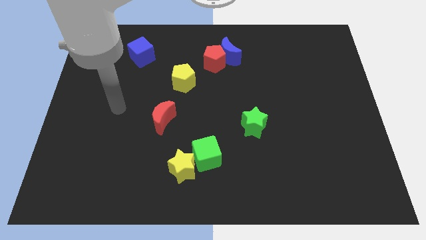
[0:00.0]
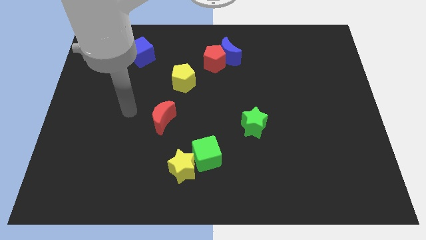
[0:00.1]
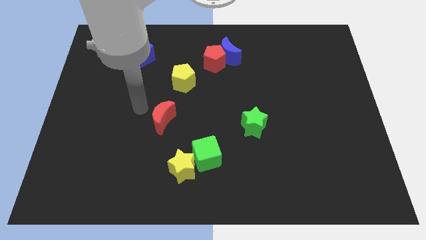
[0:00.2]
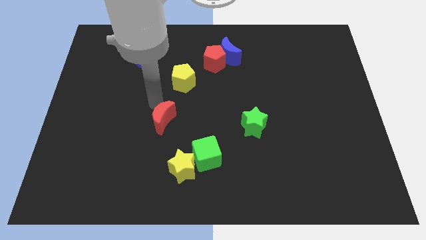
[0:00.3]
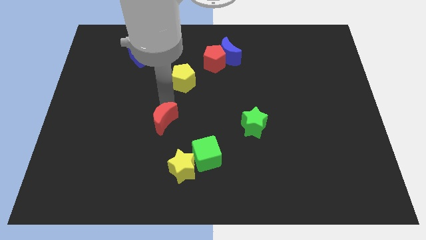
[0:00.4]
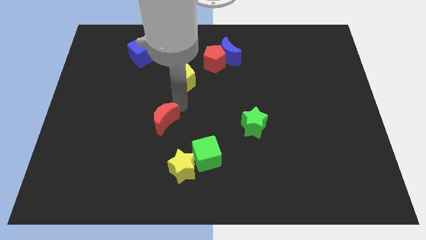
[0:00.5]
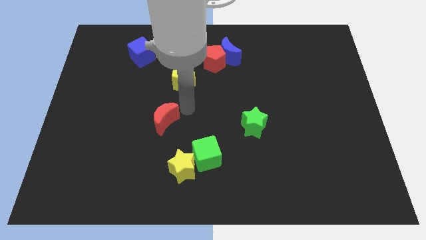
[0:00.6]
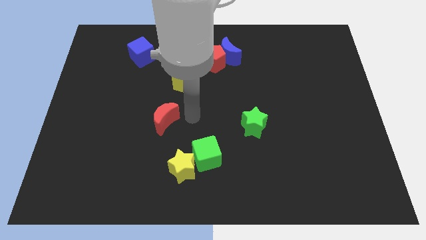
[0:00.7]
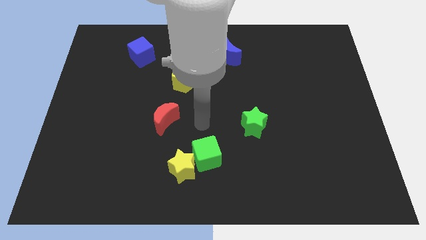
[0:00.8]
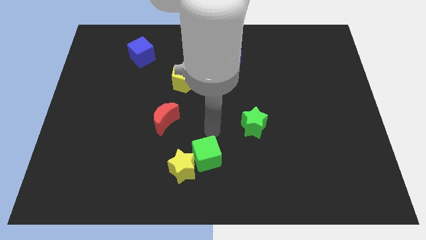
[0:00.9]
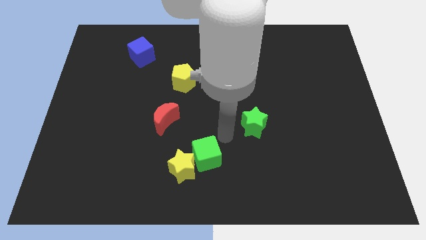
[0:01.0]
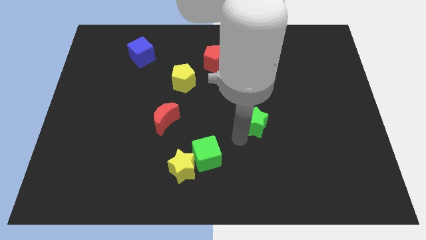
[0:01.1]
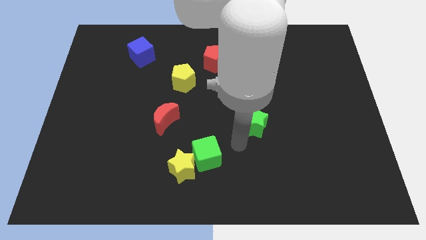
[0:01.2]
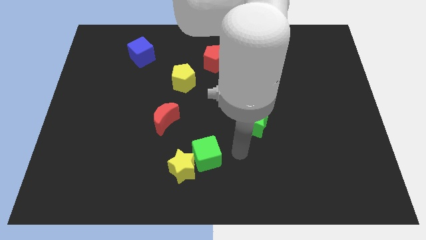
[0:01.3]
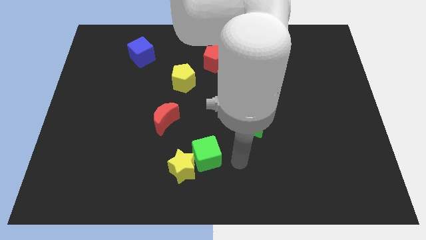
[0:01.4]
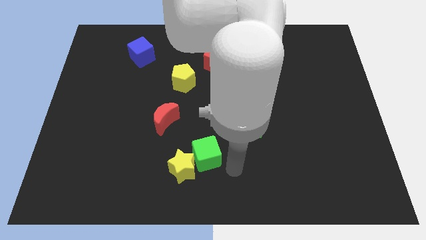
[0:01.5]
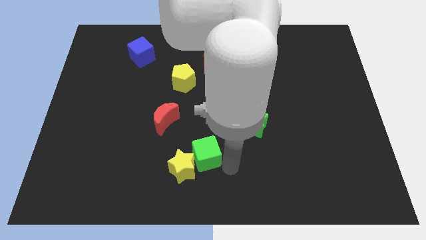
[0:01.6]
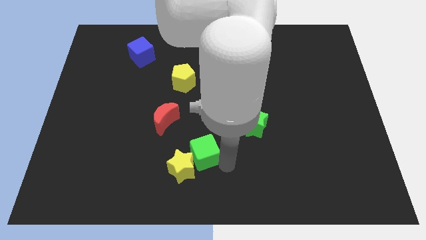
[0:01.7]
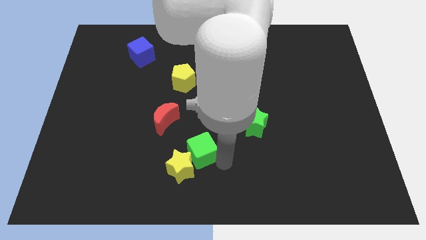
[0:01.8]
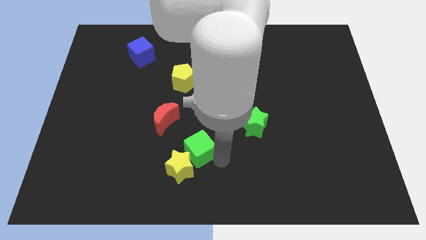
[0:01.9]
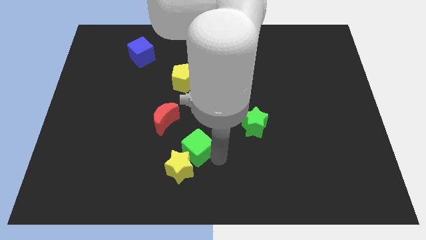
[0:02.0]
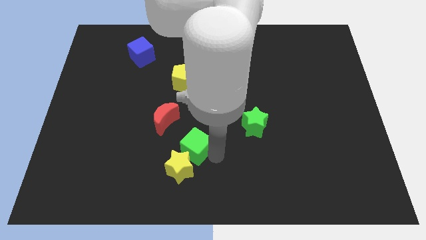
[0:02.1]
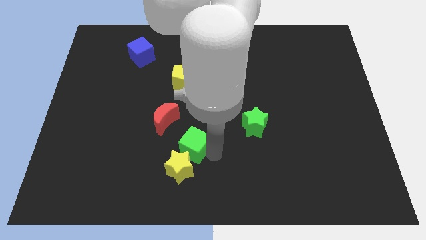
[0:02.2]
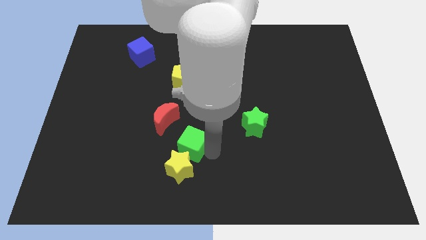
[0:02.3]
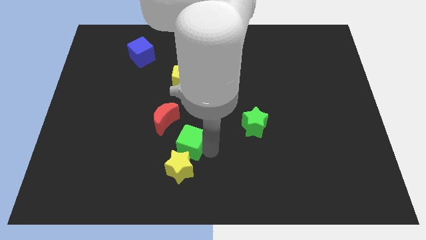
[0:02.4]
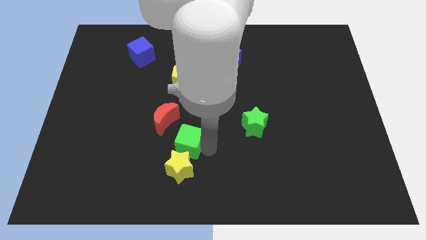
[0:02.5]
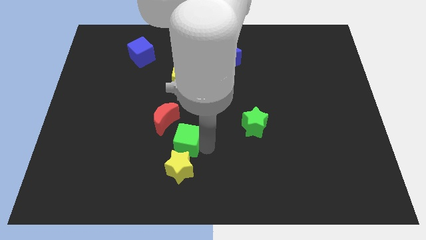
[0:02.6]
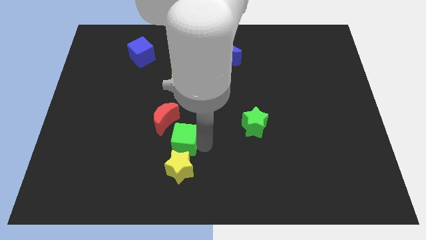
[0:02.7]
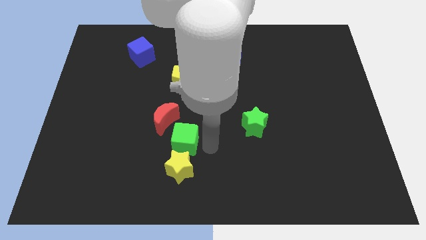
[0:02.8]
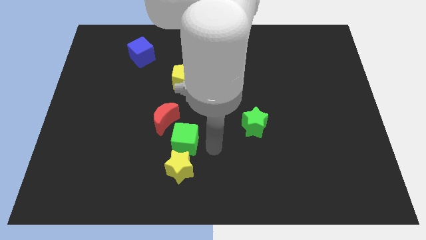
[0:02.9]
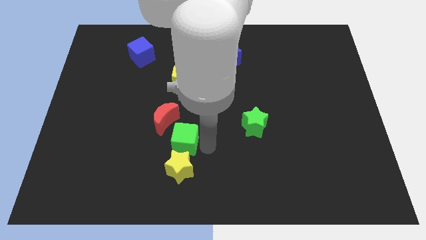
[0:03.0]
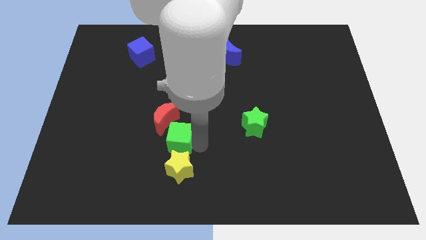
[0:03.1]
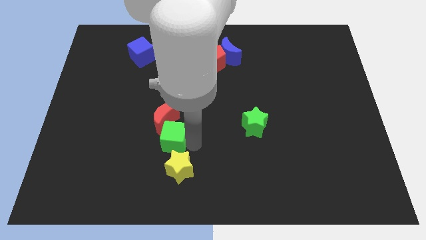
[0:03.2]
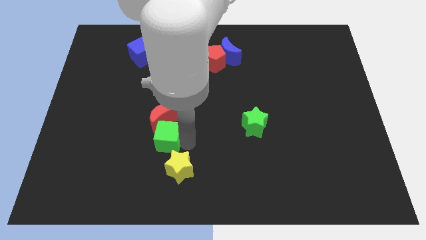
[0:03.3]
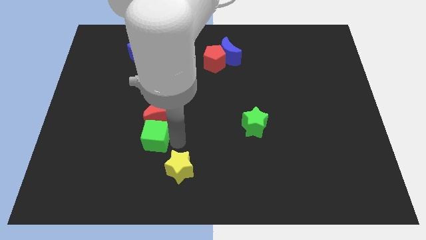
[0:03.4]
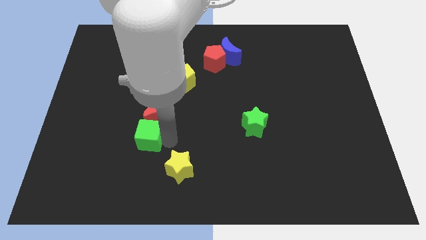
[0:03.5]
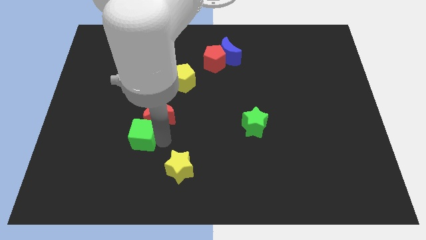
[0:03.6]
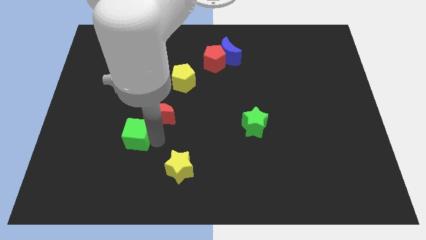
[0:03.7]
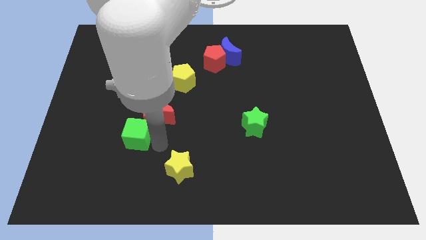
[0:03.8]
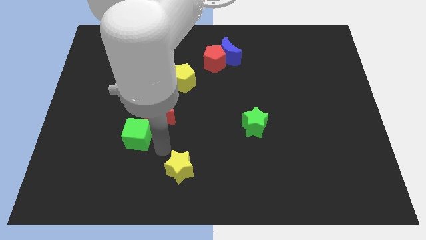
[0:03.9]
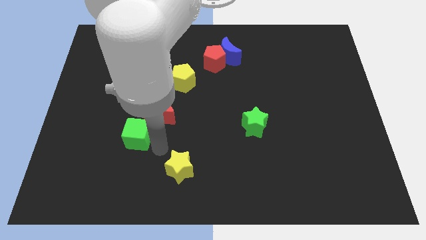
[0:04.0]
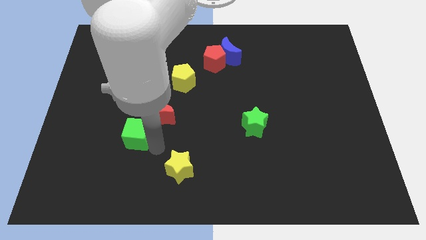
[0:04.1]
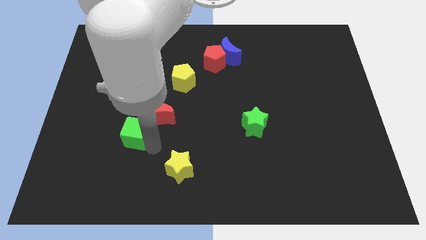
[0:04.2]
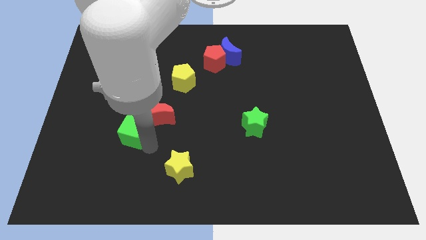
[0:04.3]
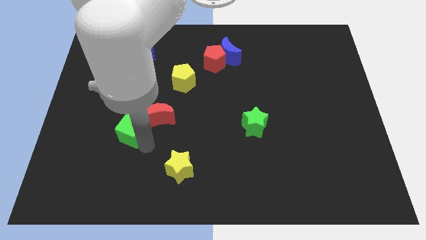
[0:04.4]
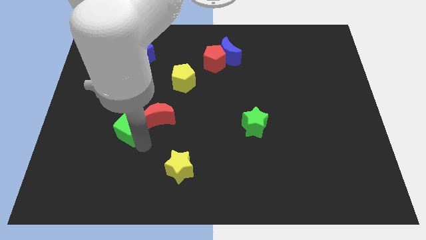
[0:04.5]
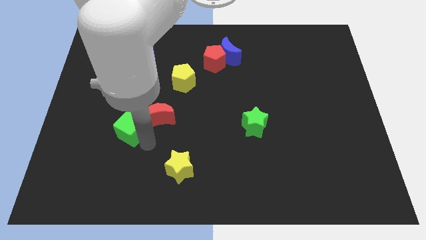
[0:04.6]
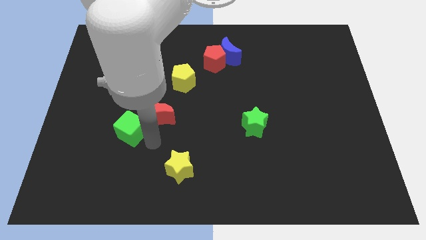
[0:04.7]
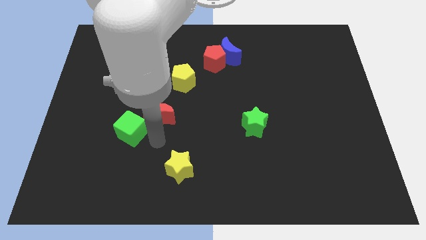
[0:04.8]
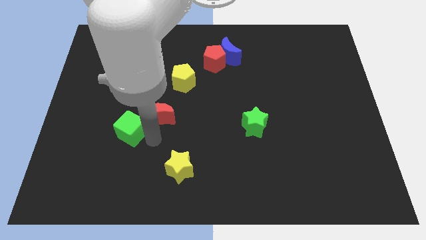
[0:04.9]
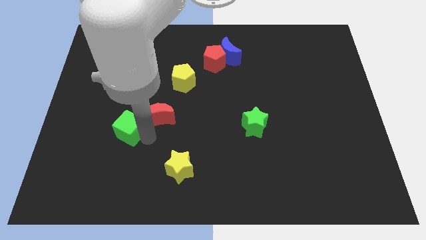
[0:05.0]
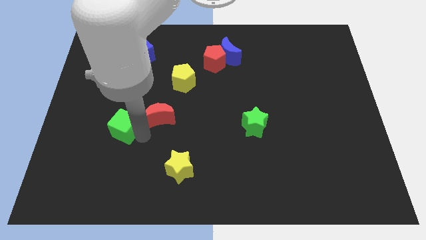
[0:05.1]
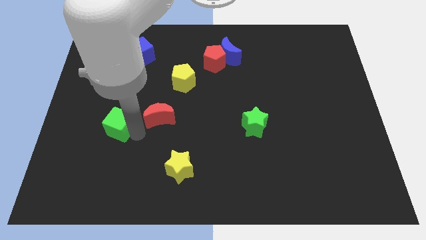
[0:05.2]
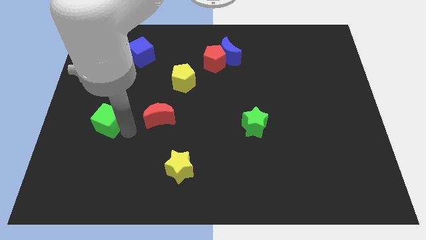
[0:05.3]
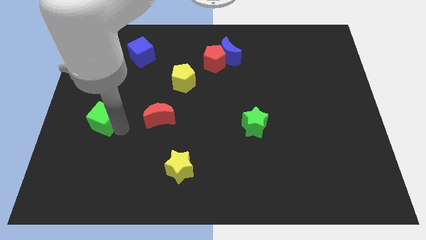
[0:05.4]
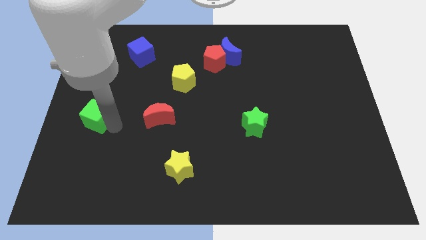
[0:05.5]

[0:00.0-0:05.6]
put the green cube to the left side of the board

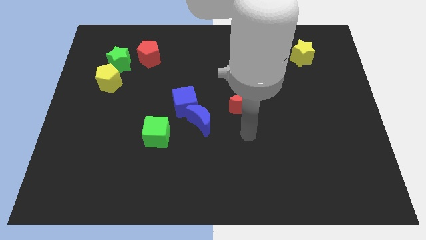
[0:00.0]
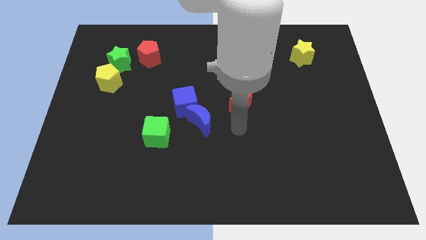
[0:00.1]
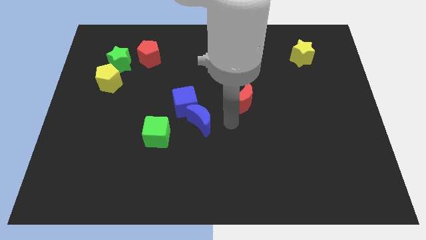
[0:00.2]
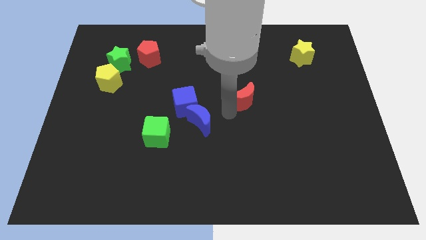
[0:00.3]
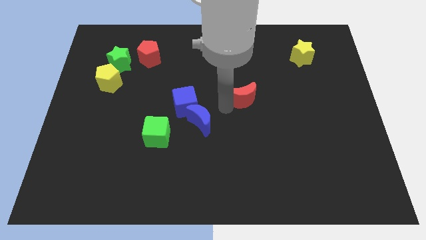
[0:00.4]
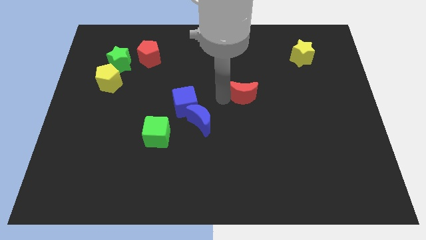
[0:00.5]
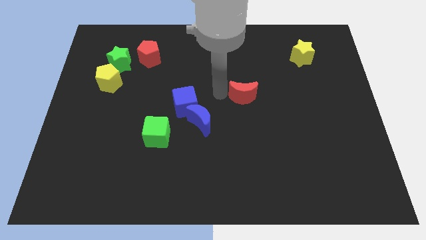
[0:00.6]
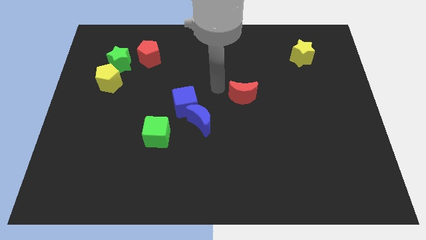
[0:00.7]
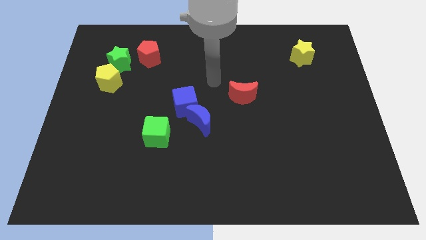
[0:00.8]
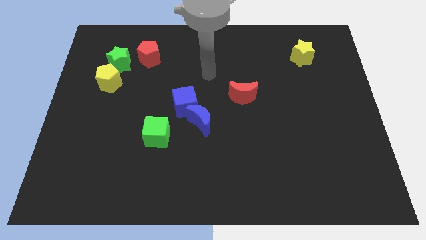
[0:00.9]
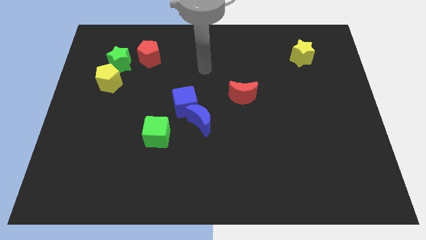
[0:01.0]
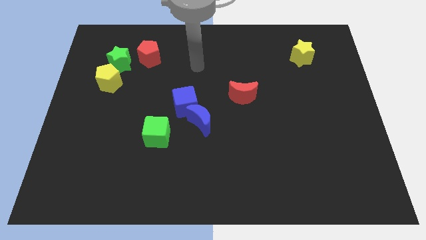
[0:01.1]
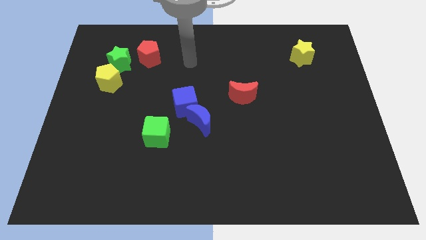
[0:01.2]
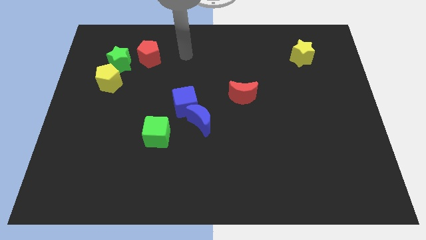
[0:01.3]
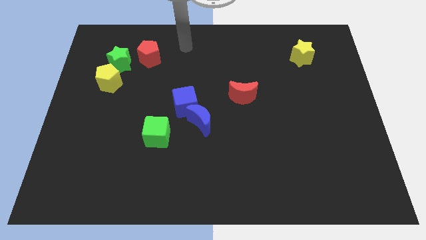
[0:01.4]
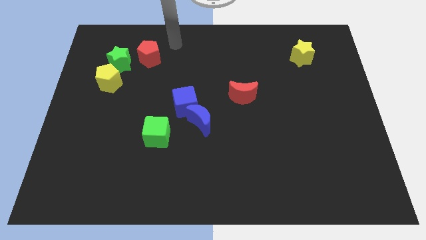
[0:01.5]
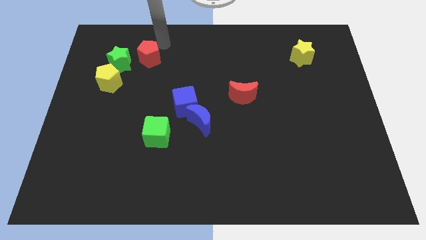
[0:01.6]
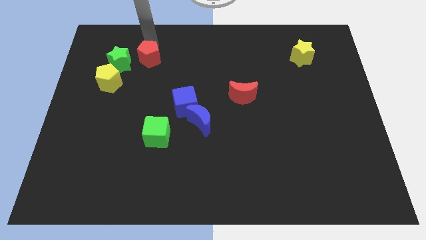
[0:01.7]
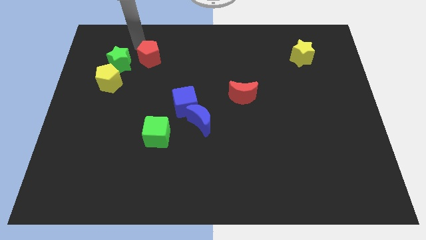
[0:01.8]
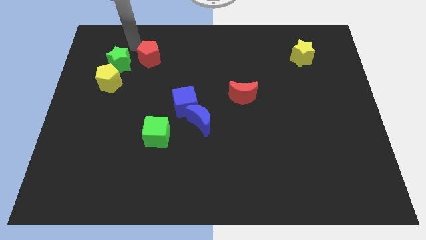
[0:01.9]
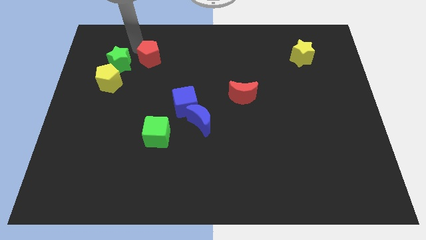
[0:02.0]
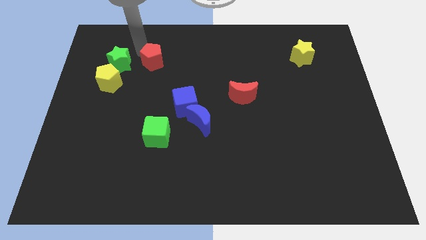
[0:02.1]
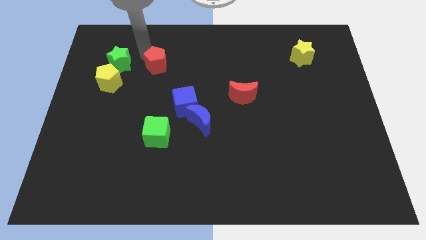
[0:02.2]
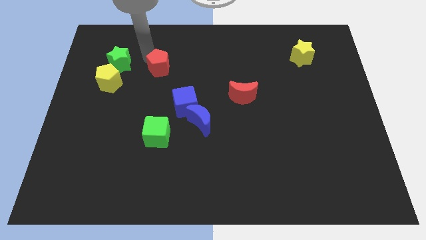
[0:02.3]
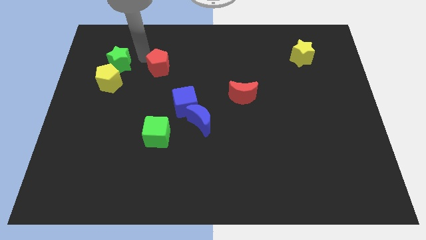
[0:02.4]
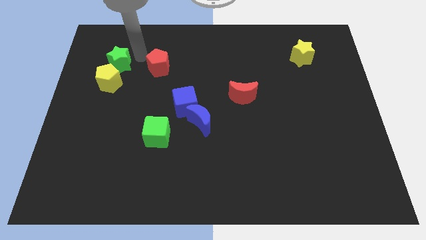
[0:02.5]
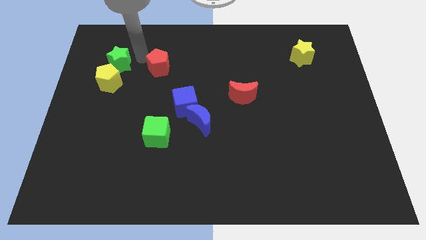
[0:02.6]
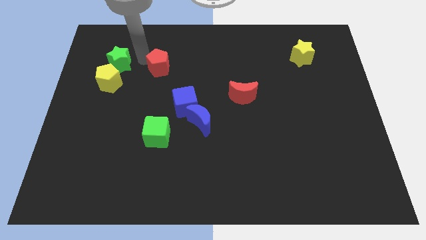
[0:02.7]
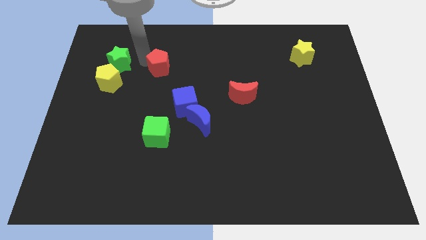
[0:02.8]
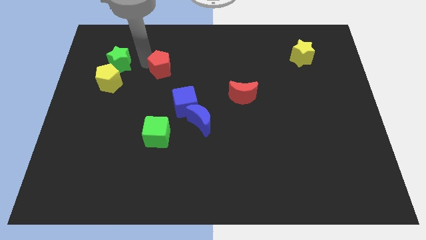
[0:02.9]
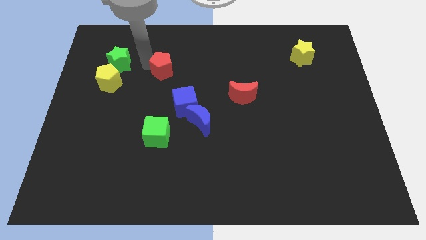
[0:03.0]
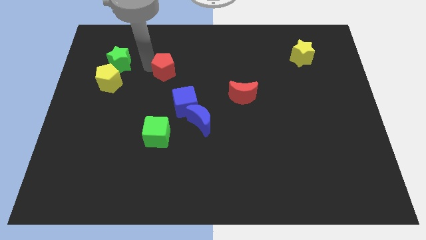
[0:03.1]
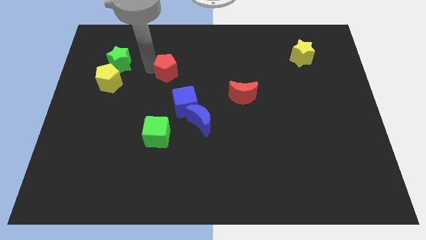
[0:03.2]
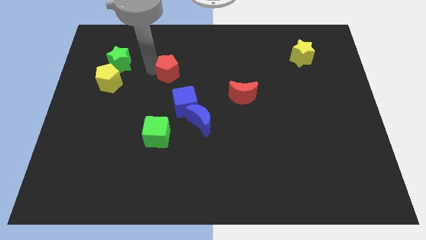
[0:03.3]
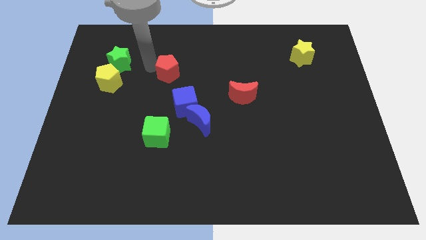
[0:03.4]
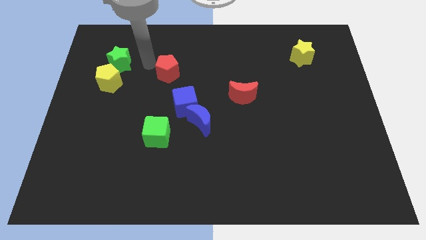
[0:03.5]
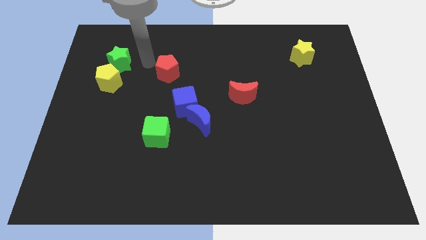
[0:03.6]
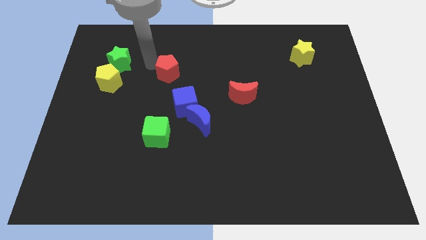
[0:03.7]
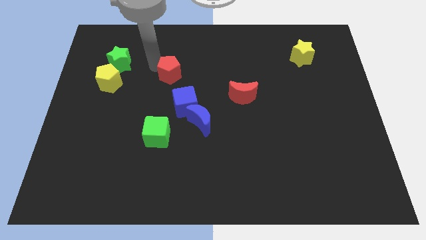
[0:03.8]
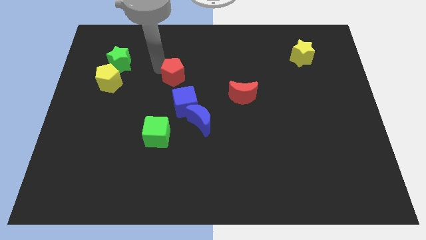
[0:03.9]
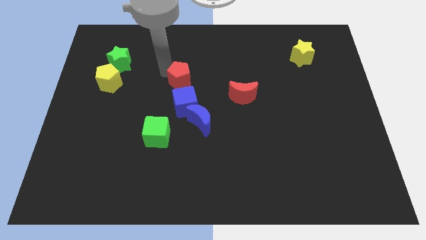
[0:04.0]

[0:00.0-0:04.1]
put the red pentagon to the center
